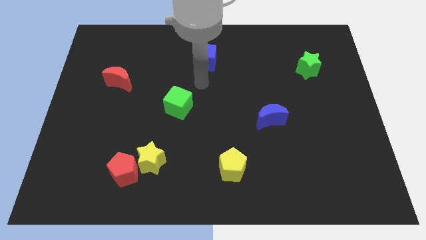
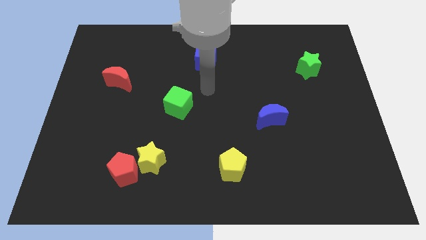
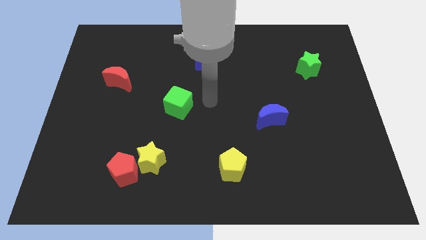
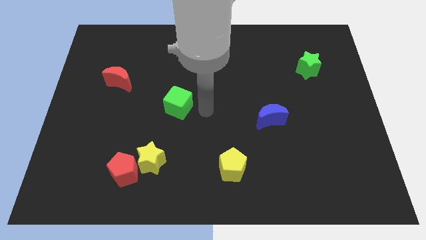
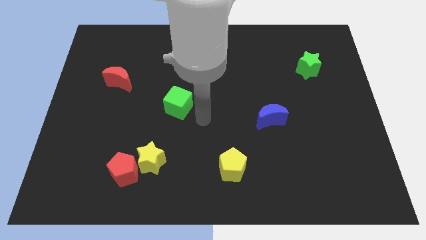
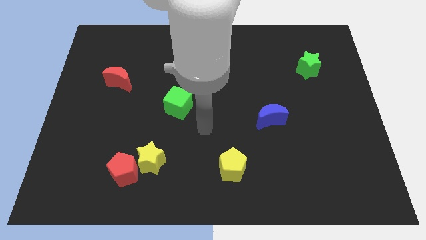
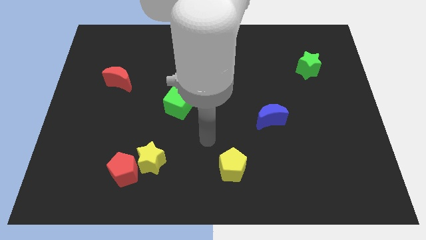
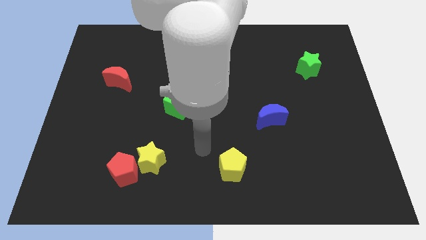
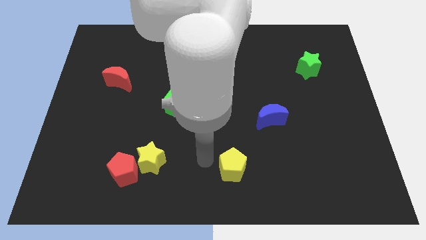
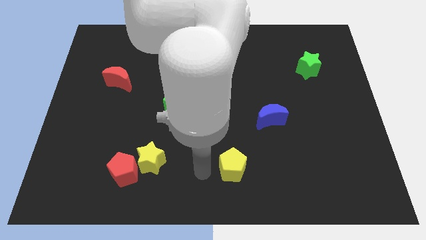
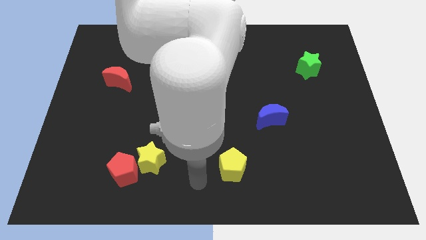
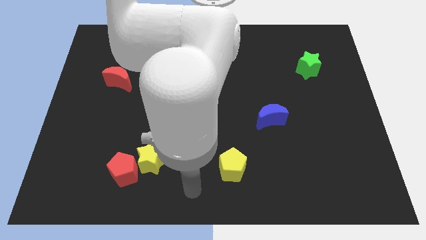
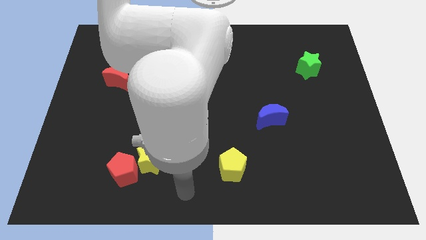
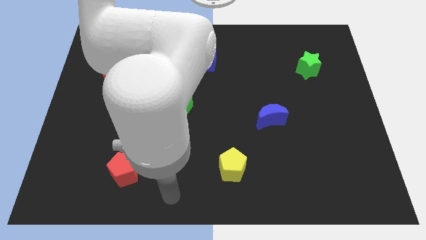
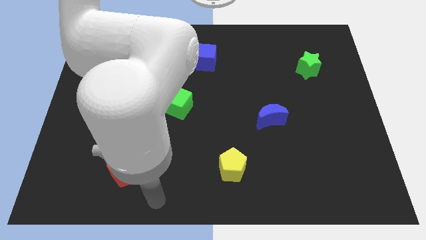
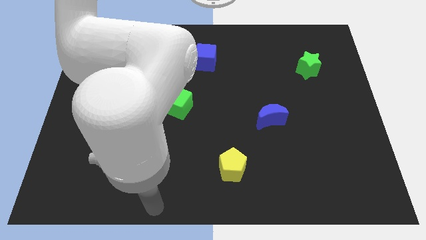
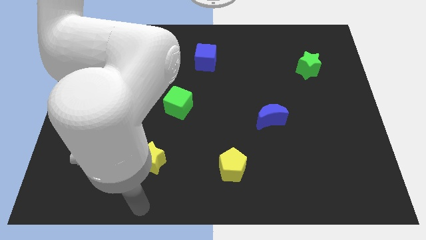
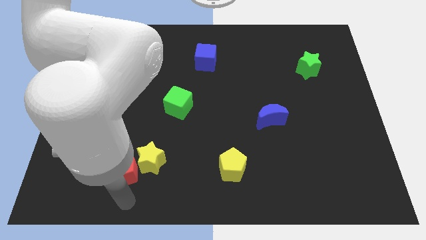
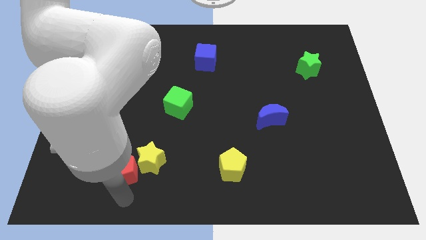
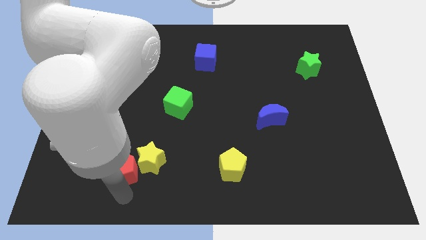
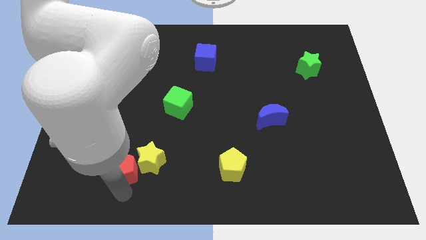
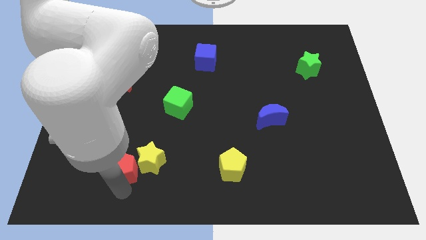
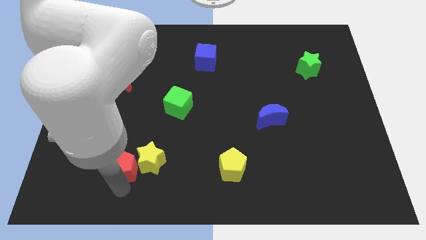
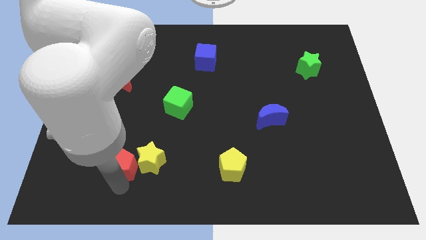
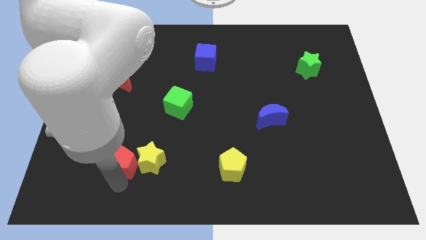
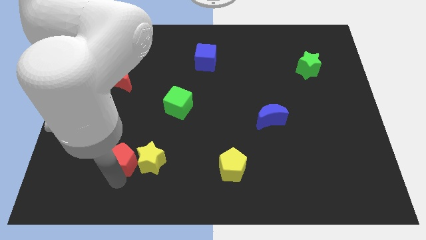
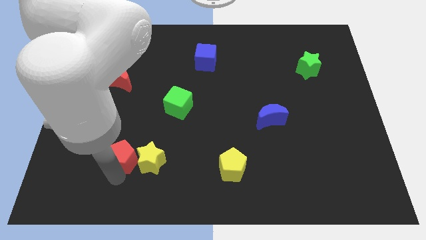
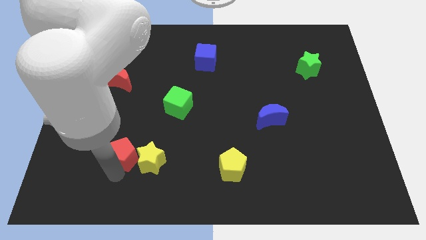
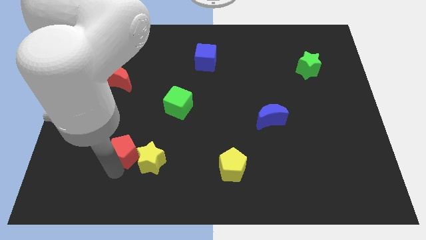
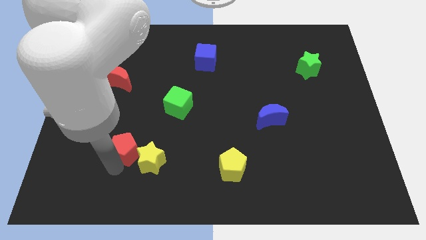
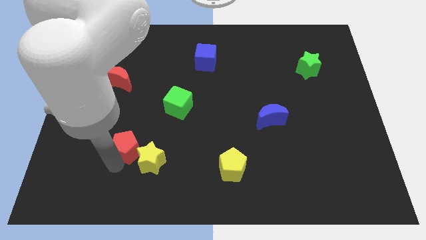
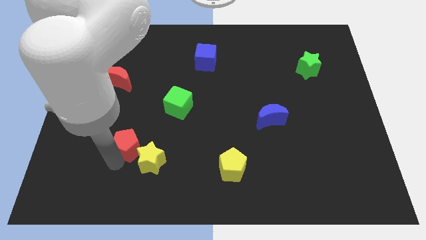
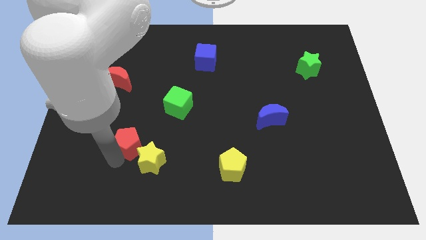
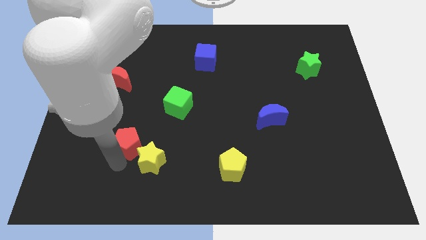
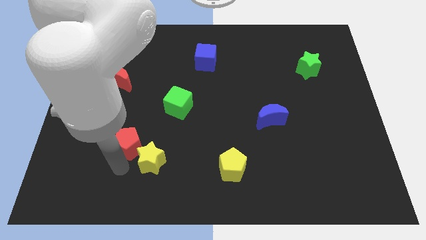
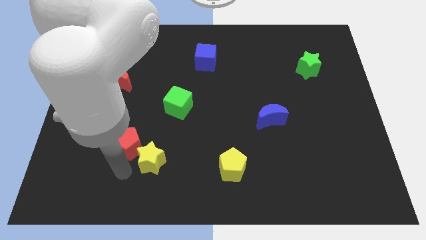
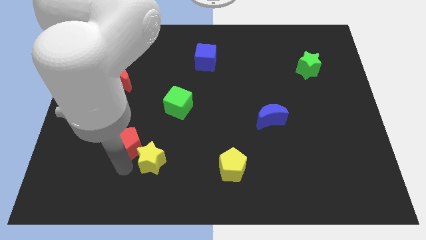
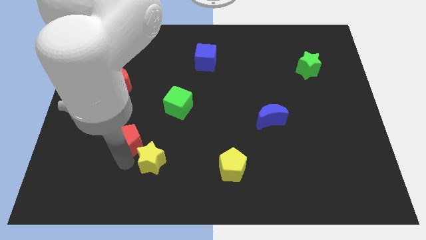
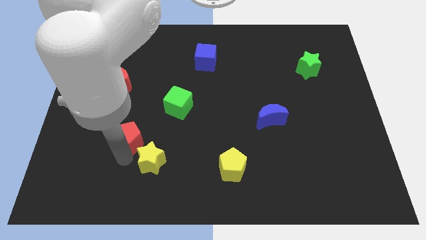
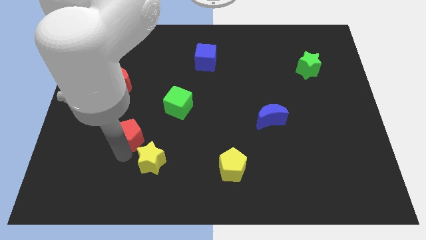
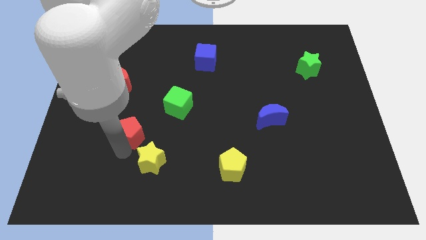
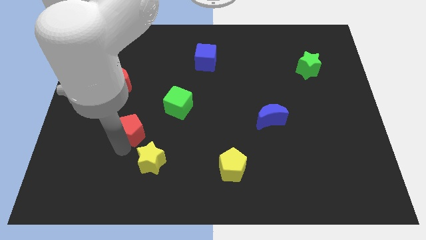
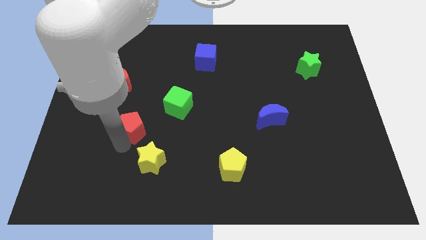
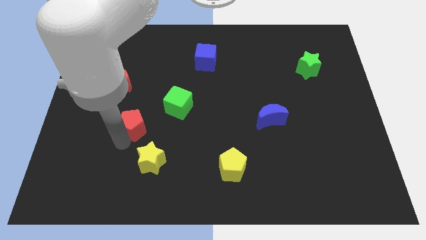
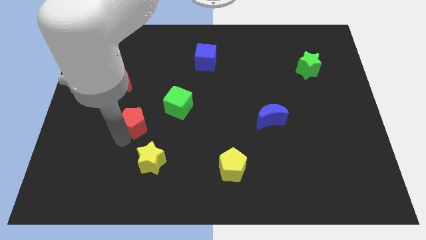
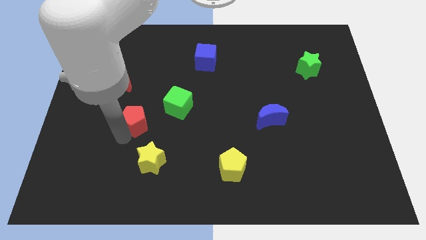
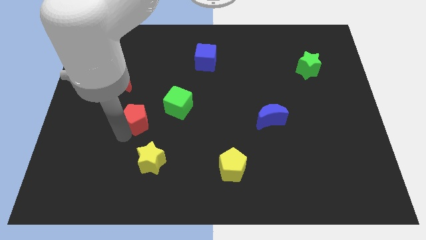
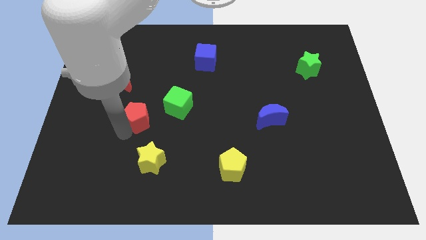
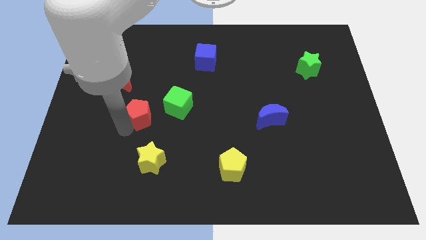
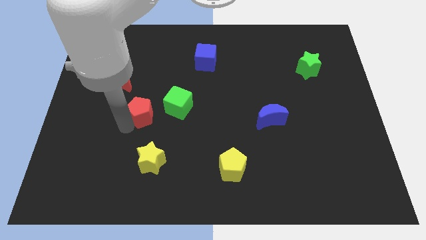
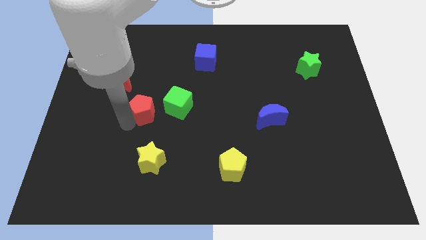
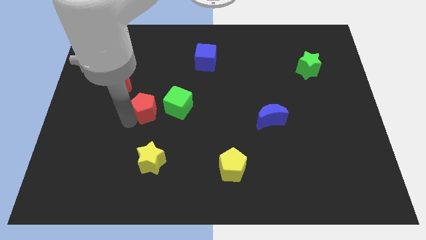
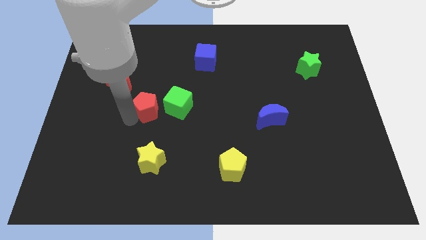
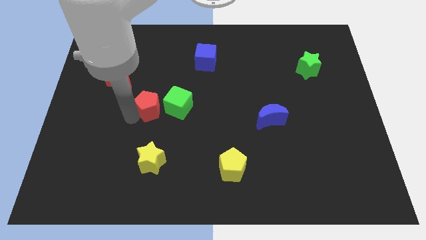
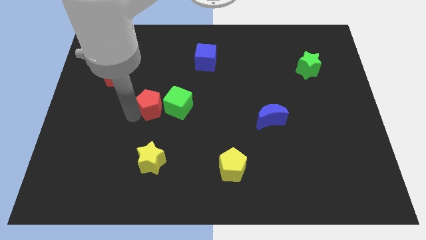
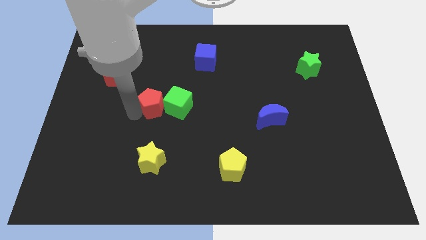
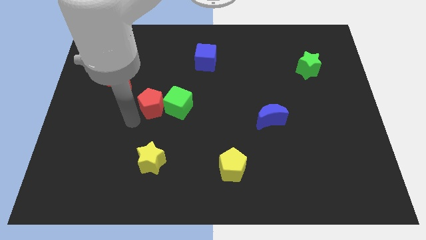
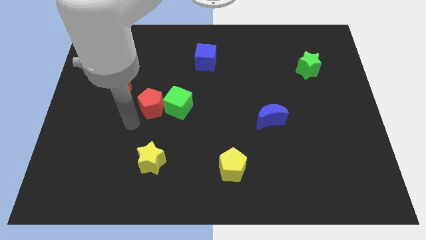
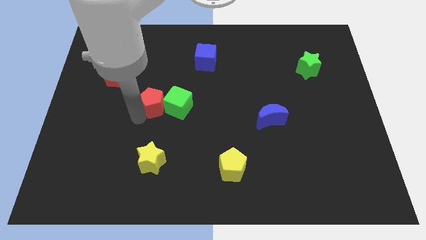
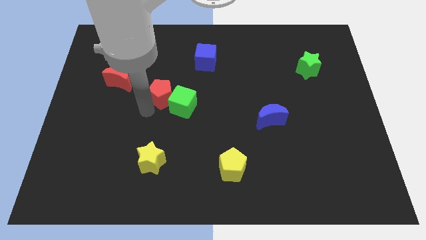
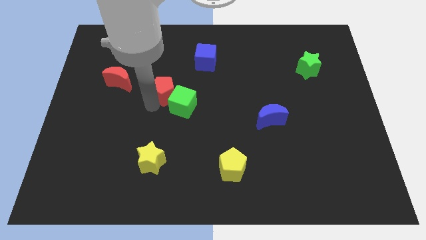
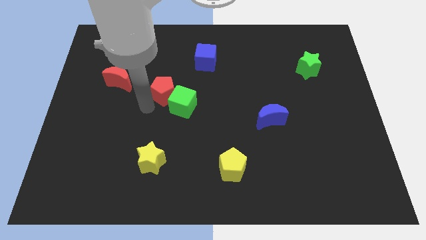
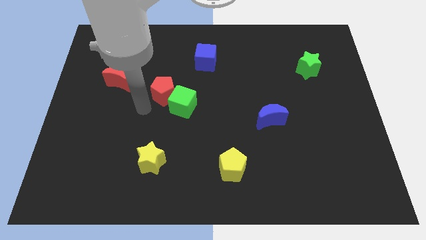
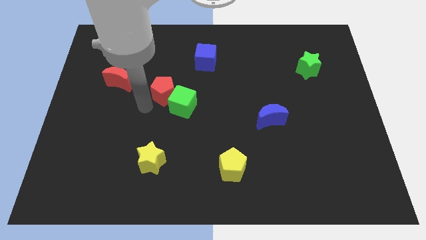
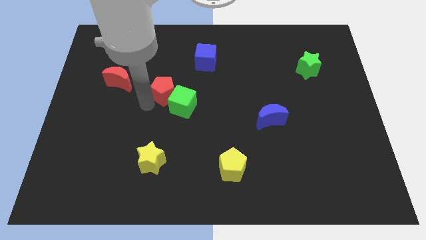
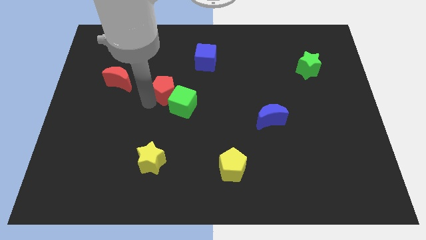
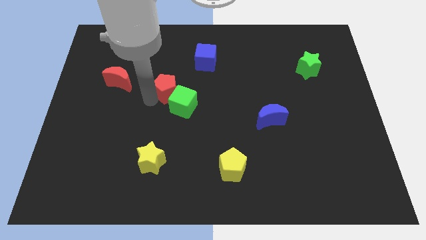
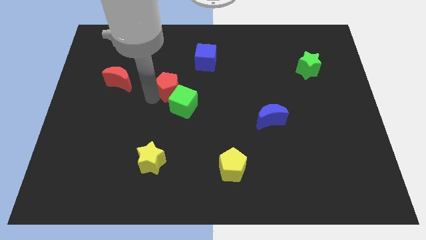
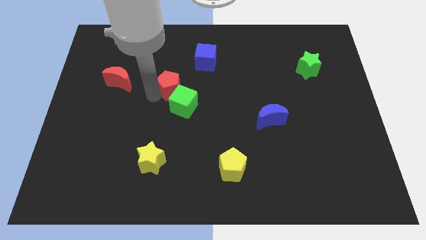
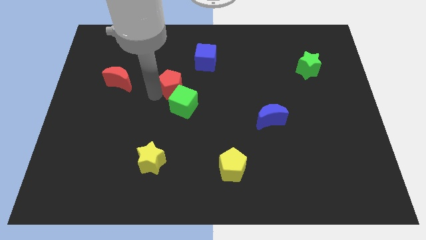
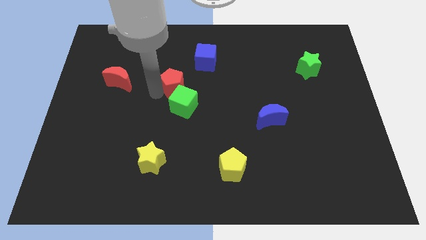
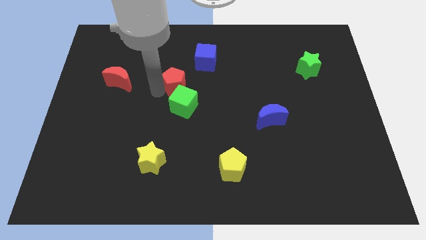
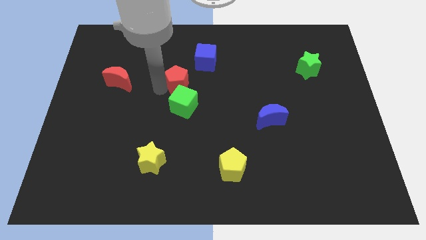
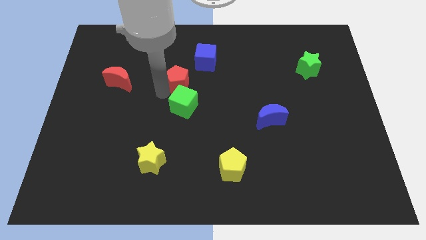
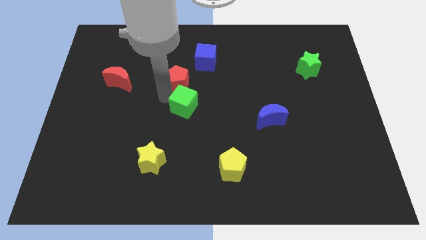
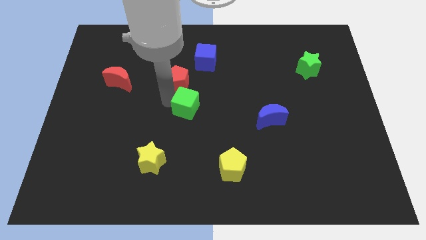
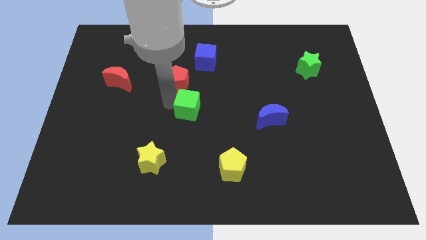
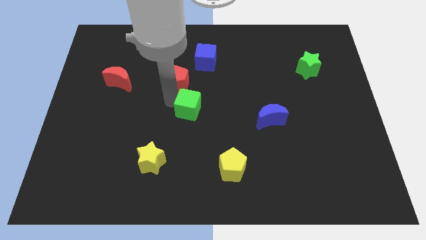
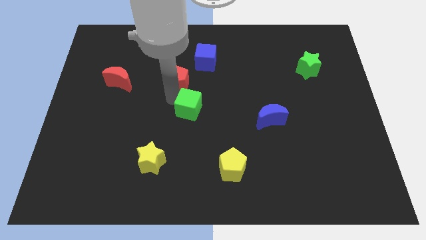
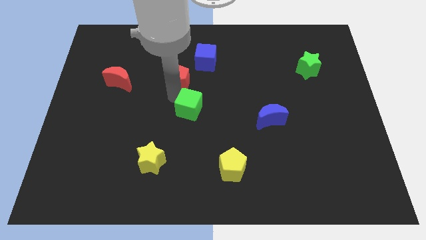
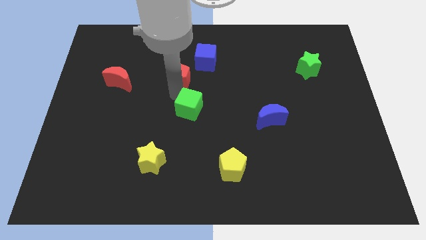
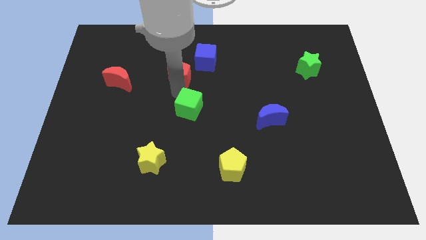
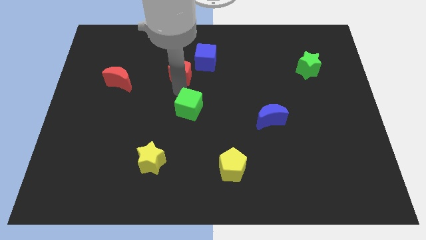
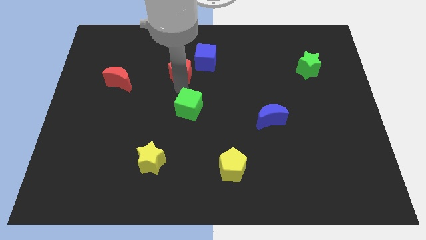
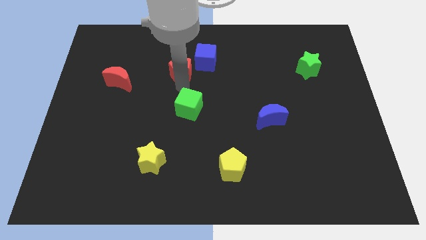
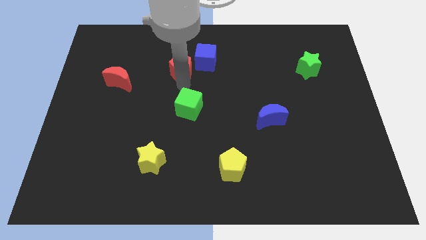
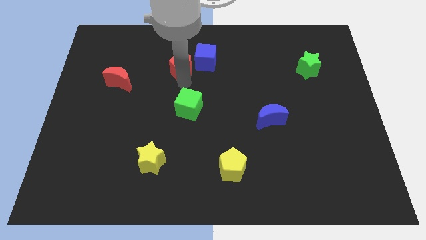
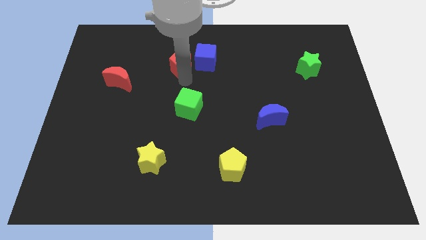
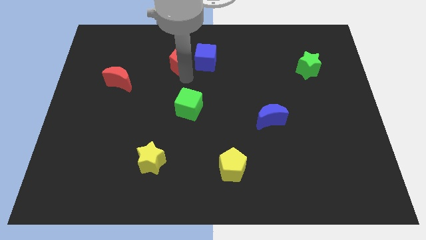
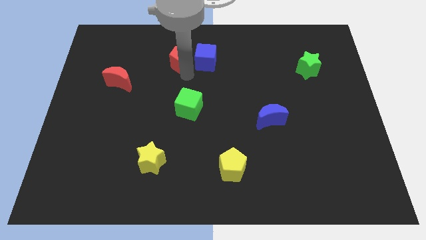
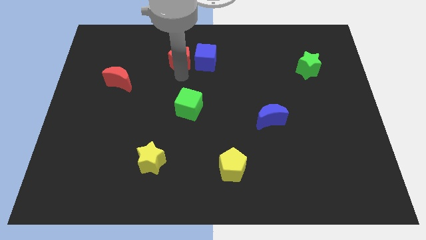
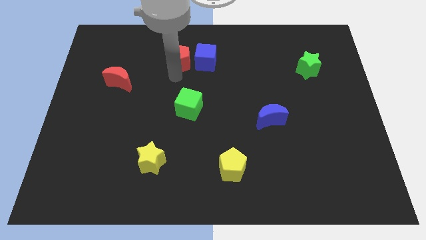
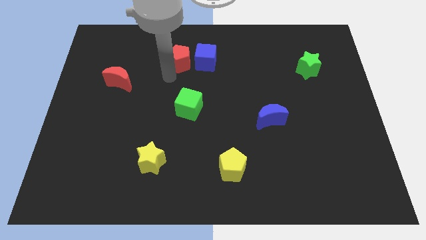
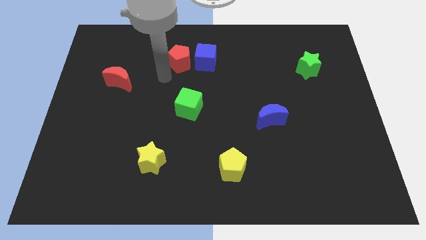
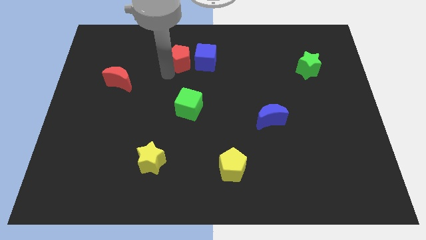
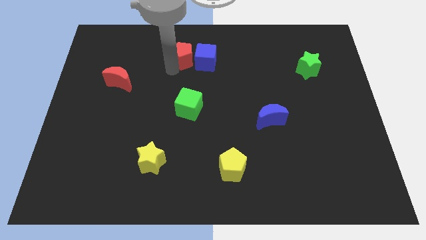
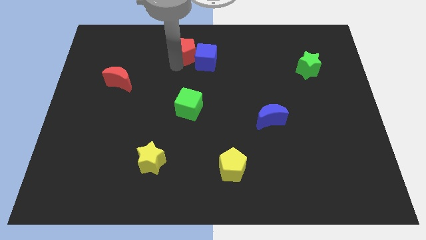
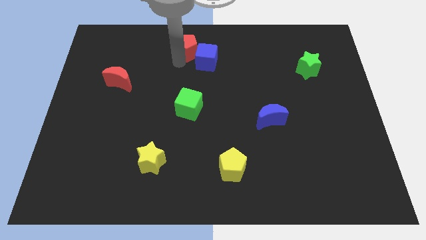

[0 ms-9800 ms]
push the red pentagon to the towards your base
